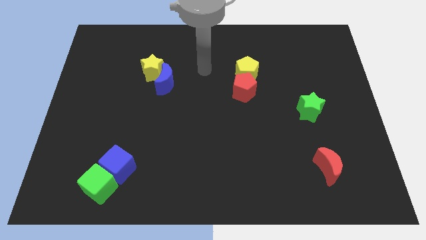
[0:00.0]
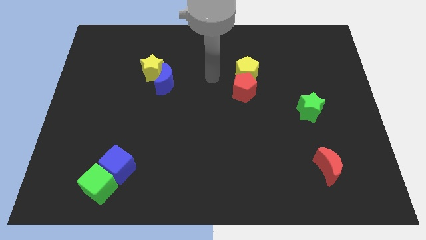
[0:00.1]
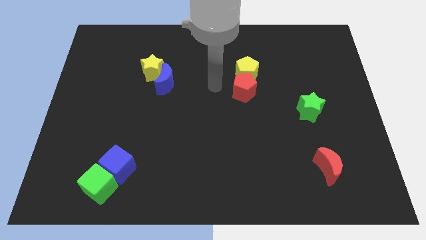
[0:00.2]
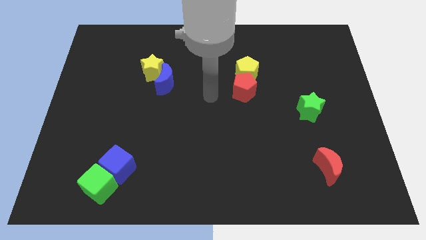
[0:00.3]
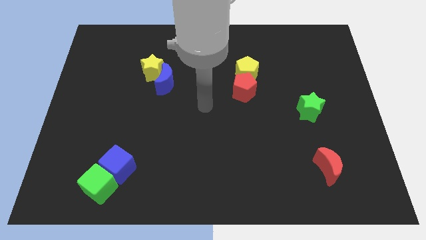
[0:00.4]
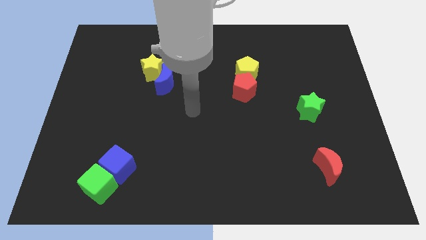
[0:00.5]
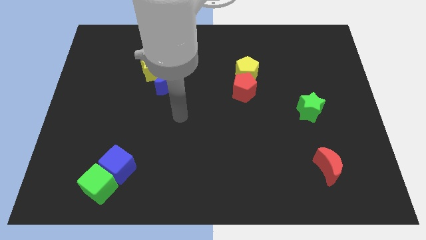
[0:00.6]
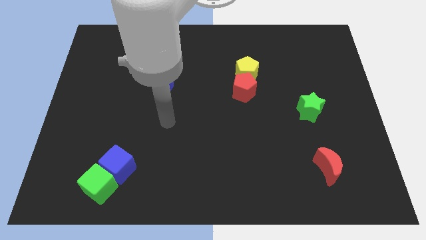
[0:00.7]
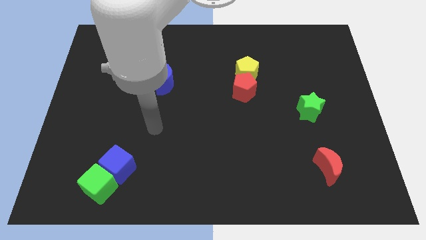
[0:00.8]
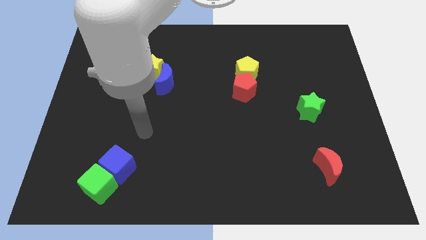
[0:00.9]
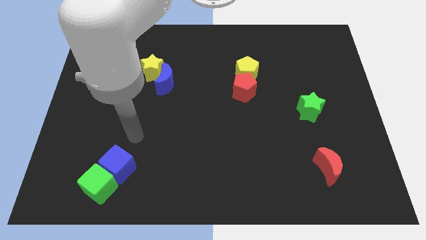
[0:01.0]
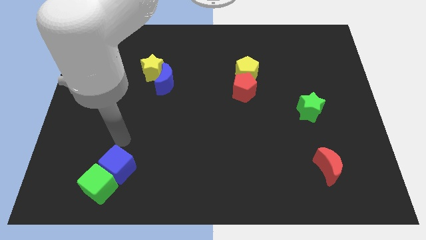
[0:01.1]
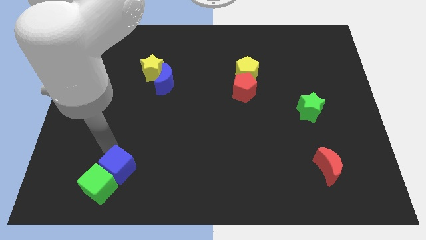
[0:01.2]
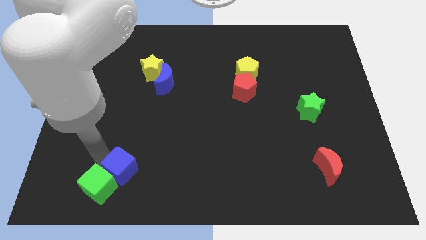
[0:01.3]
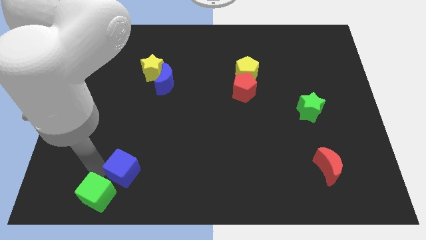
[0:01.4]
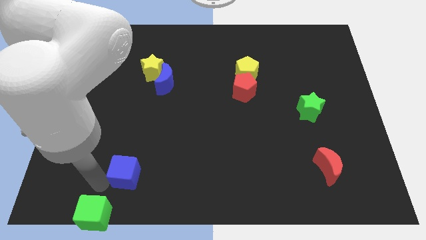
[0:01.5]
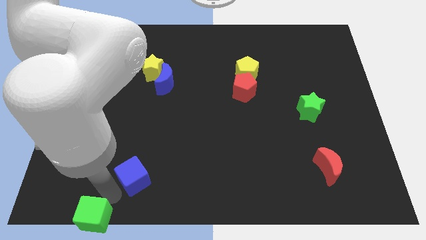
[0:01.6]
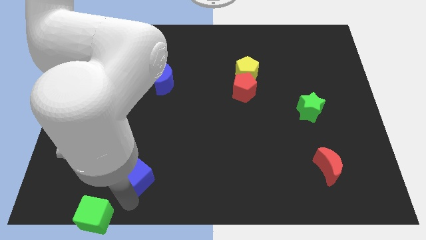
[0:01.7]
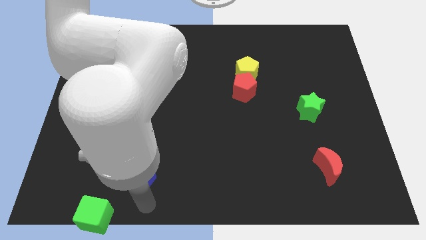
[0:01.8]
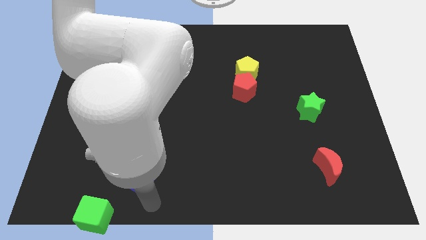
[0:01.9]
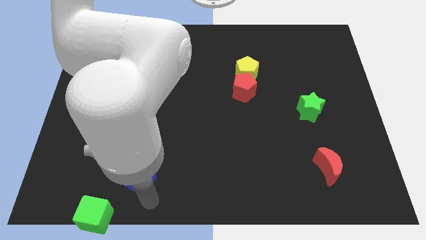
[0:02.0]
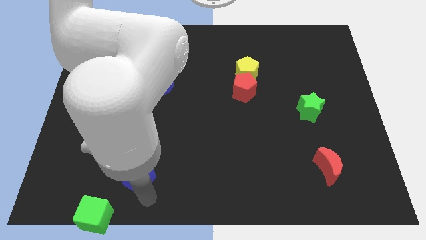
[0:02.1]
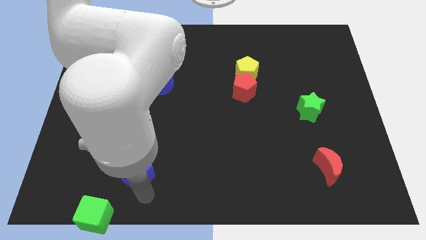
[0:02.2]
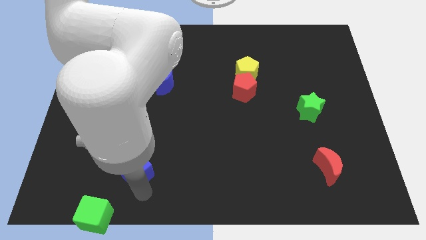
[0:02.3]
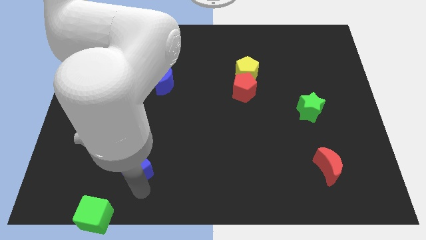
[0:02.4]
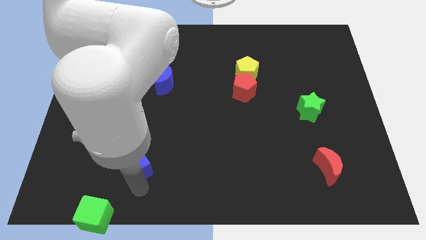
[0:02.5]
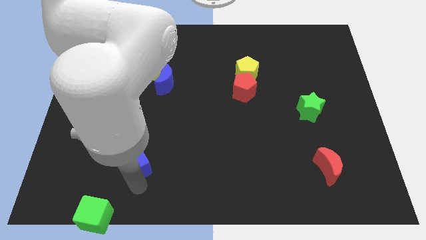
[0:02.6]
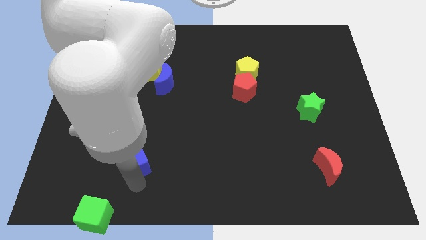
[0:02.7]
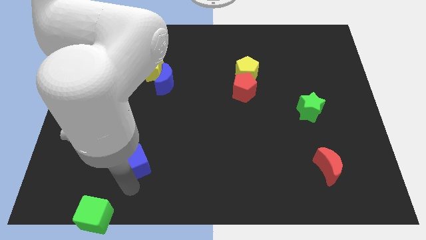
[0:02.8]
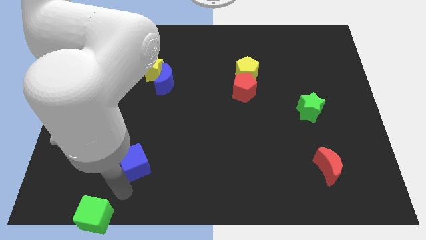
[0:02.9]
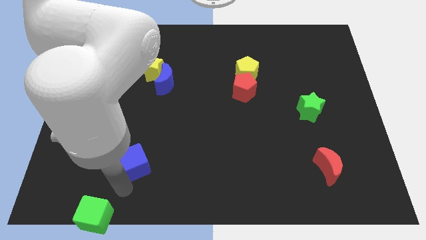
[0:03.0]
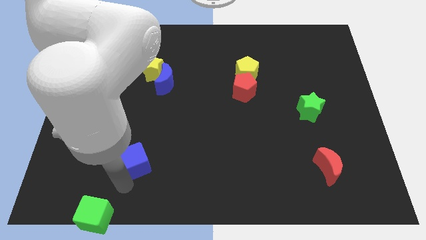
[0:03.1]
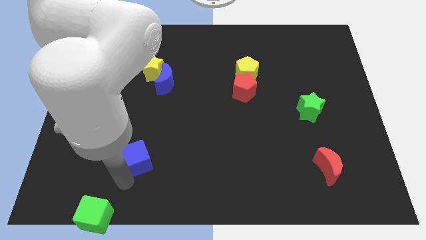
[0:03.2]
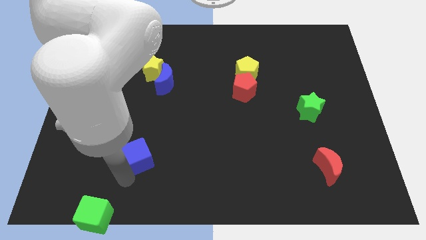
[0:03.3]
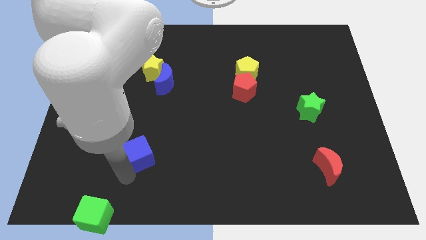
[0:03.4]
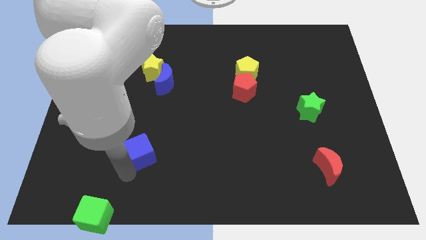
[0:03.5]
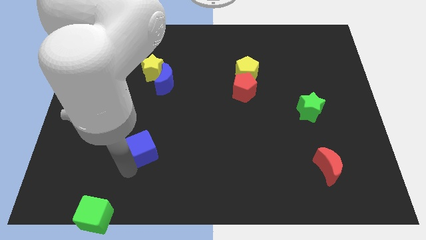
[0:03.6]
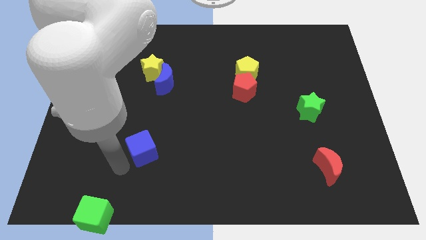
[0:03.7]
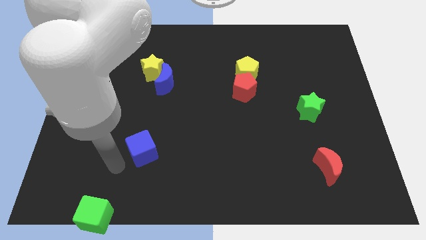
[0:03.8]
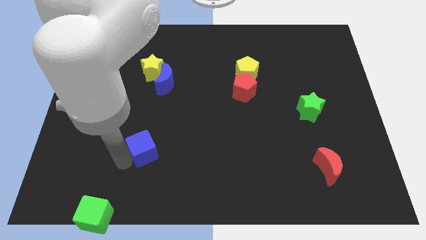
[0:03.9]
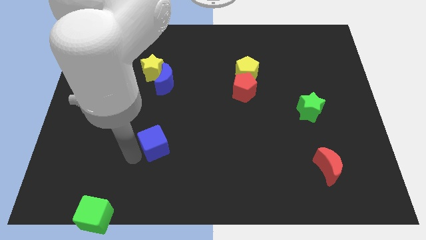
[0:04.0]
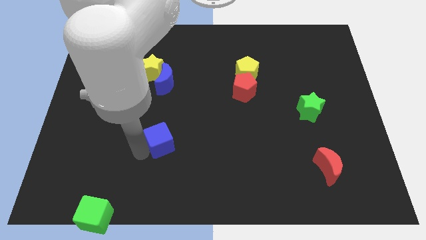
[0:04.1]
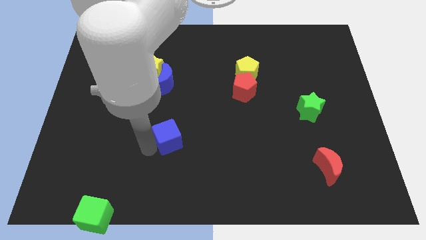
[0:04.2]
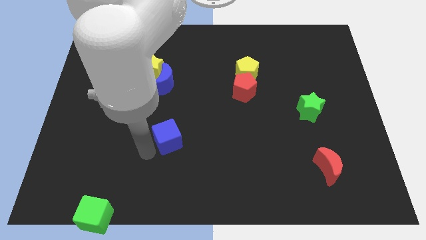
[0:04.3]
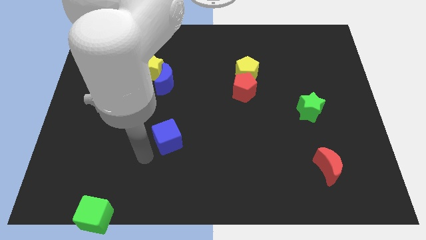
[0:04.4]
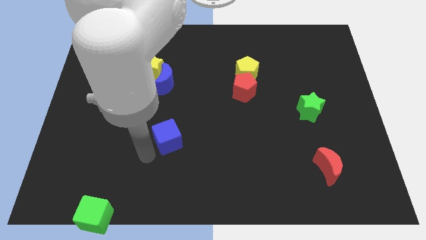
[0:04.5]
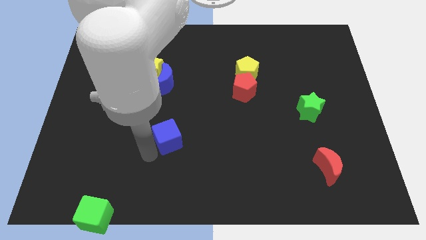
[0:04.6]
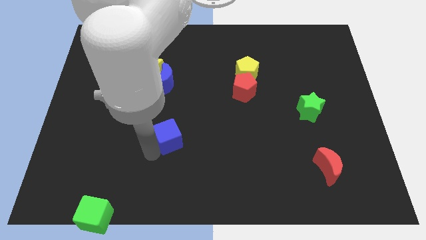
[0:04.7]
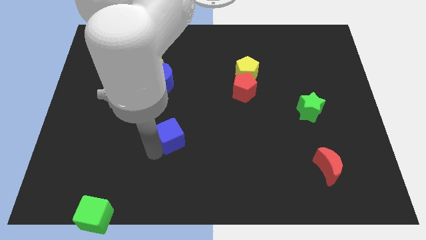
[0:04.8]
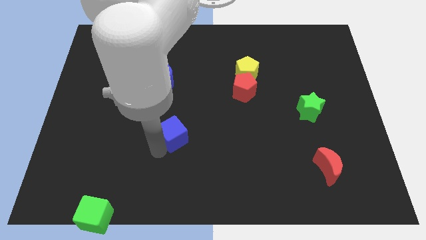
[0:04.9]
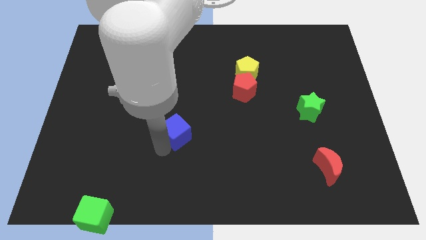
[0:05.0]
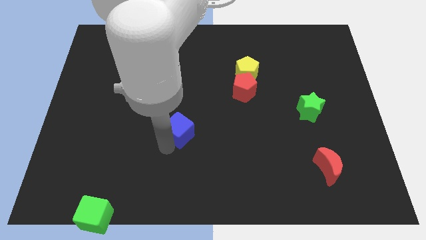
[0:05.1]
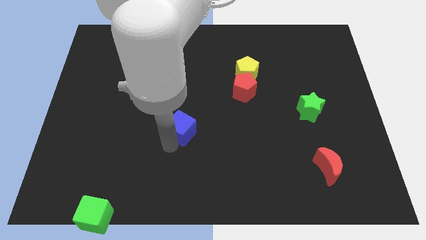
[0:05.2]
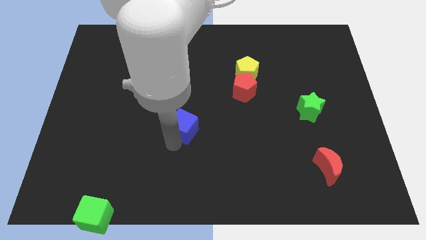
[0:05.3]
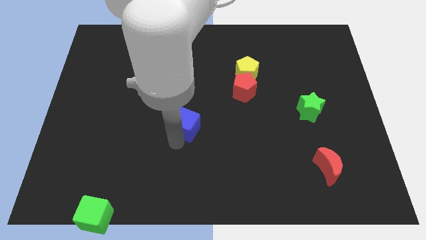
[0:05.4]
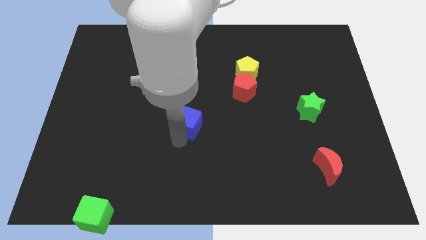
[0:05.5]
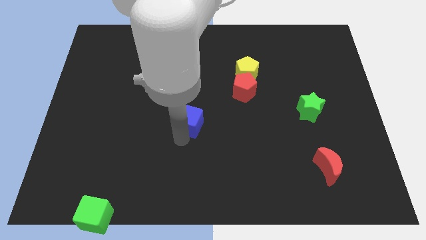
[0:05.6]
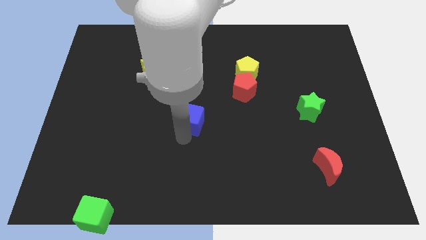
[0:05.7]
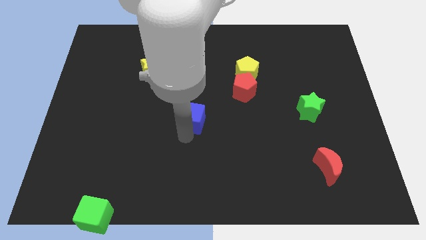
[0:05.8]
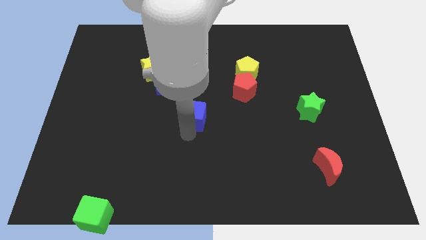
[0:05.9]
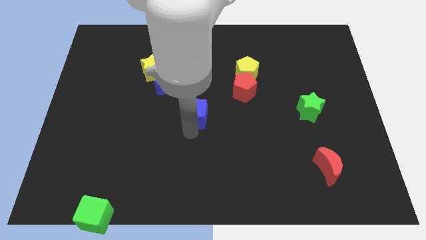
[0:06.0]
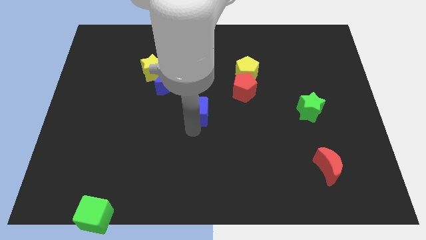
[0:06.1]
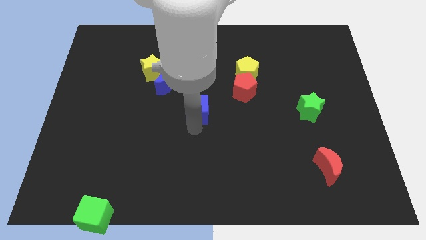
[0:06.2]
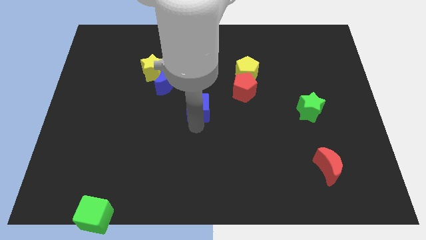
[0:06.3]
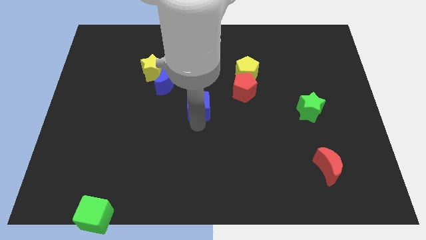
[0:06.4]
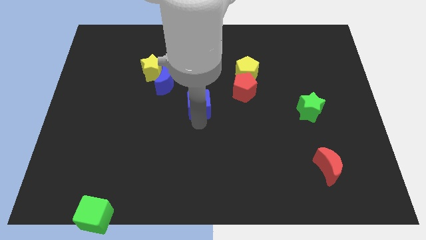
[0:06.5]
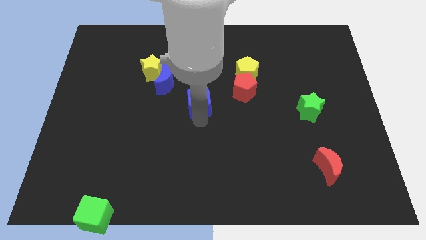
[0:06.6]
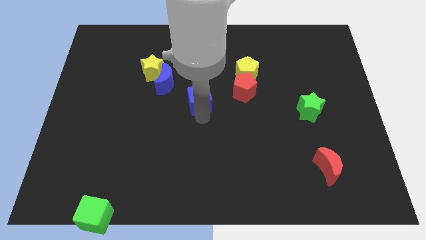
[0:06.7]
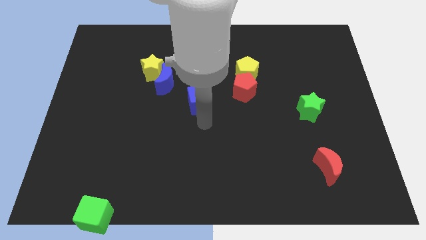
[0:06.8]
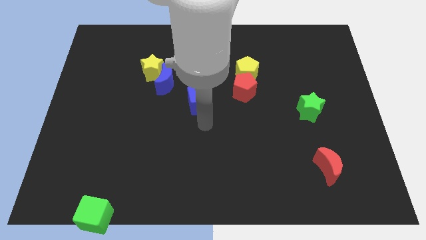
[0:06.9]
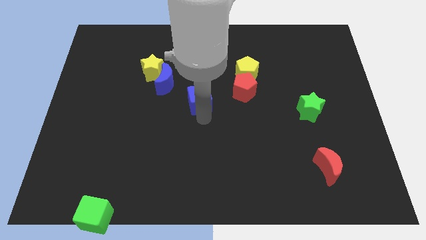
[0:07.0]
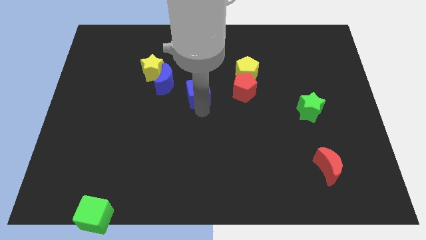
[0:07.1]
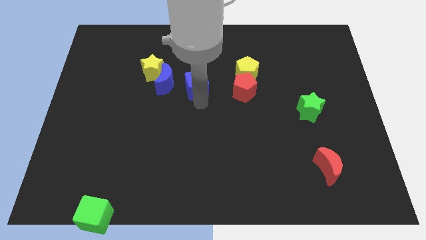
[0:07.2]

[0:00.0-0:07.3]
push the blue cube to the right of the yellow star
